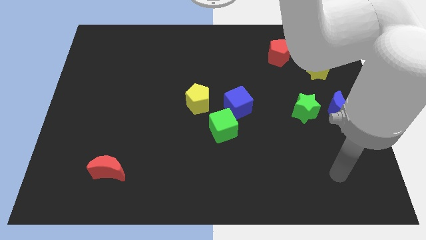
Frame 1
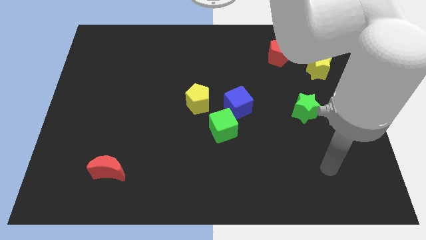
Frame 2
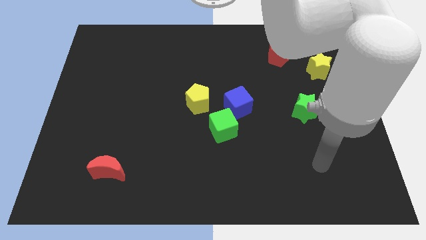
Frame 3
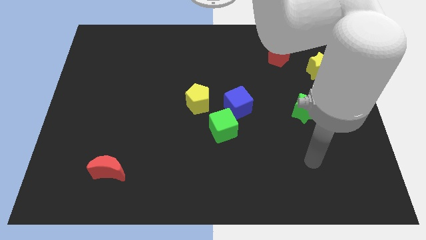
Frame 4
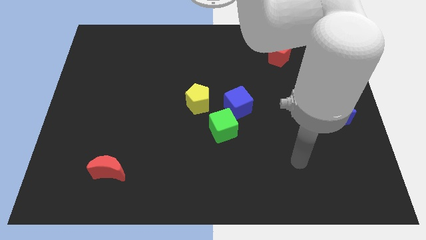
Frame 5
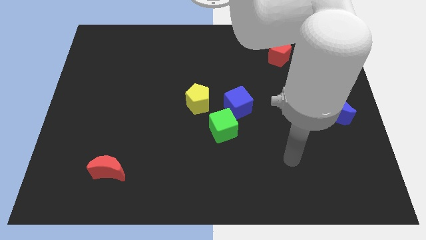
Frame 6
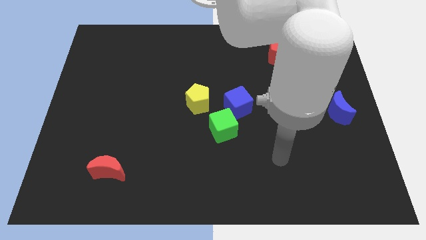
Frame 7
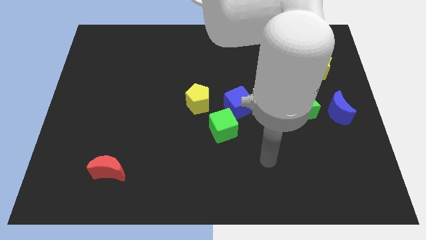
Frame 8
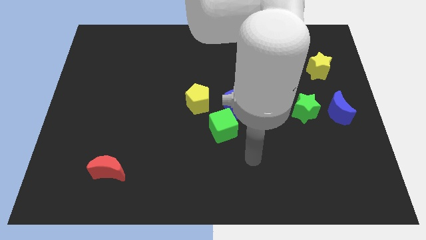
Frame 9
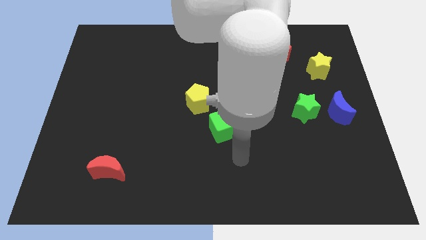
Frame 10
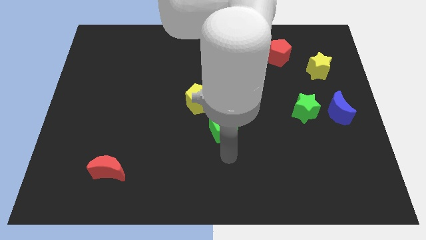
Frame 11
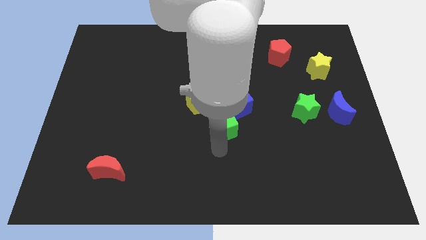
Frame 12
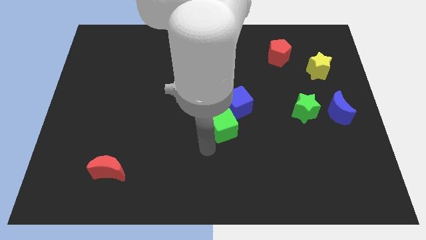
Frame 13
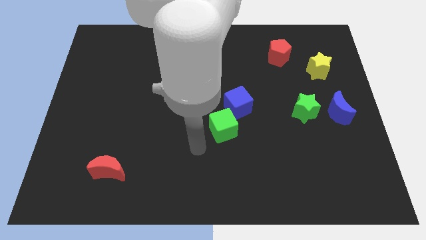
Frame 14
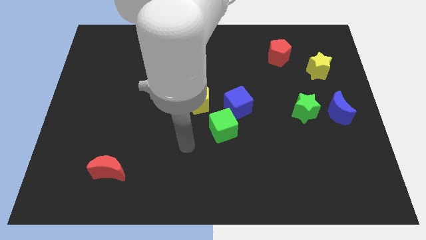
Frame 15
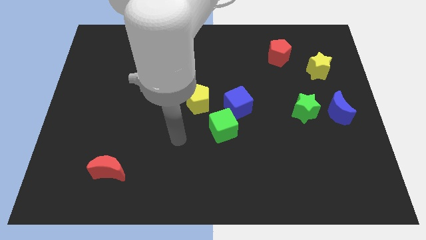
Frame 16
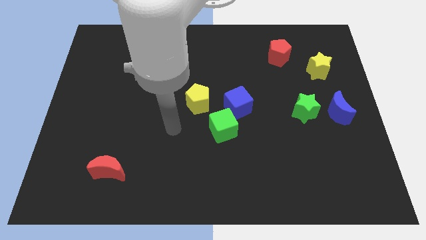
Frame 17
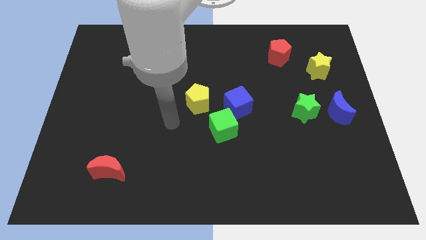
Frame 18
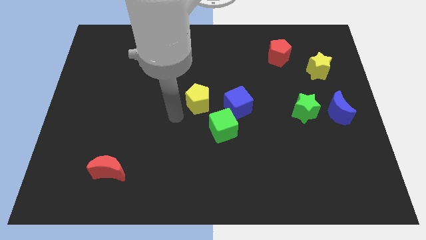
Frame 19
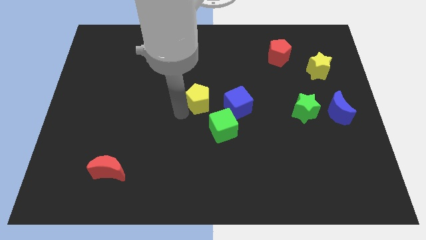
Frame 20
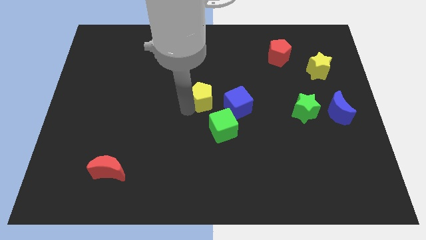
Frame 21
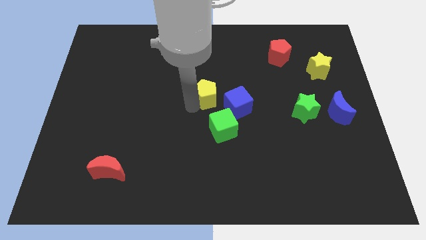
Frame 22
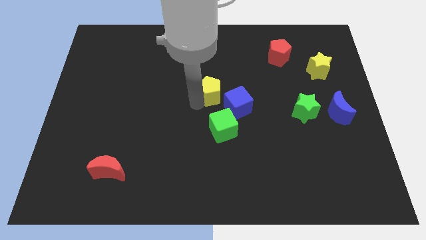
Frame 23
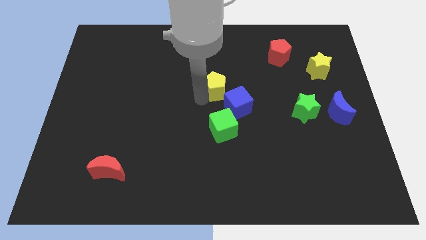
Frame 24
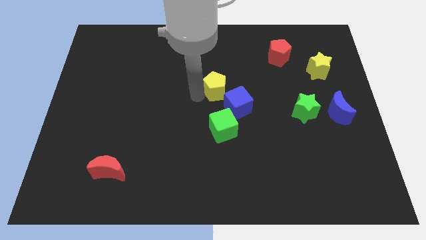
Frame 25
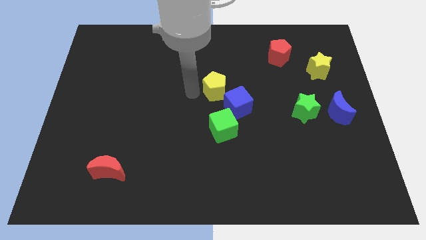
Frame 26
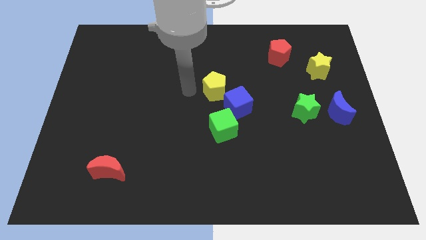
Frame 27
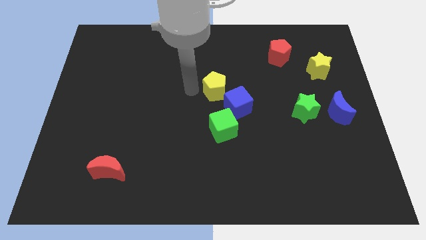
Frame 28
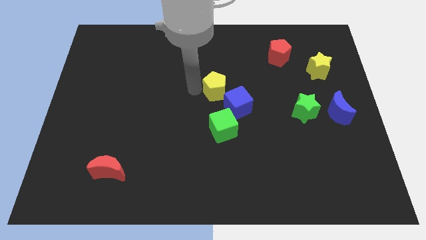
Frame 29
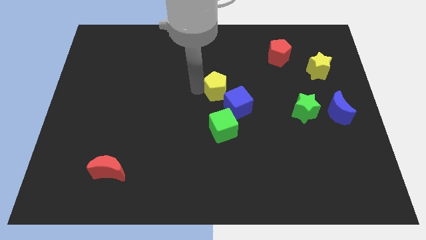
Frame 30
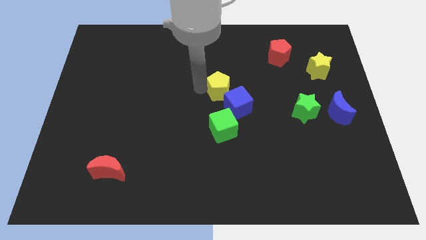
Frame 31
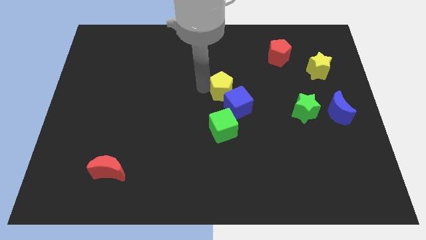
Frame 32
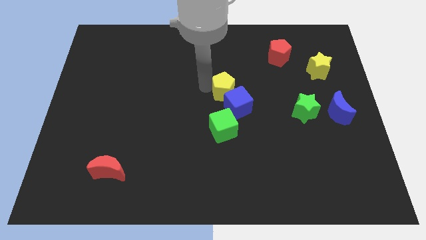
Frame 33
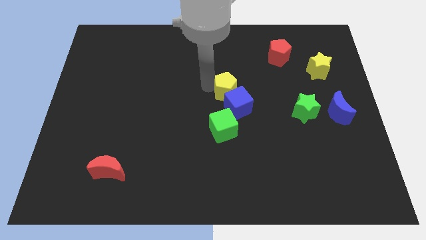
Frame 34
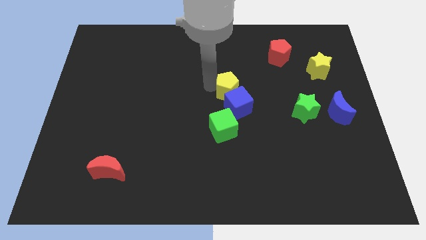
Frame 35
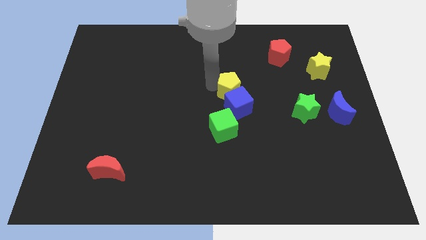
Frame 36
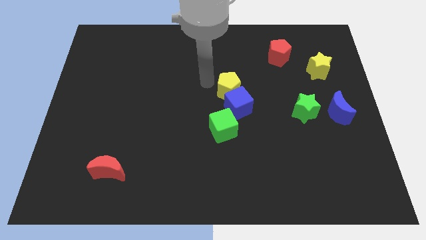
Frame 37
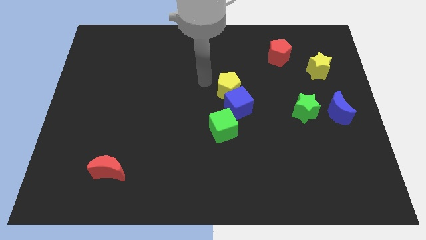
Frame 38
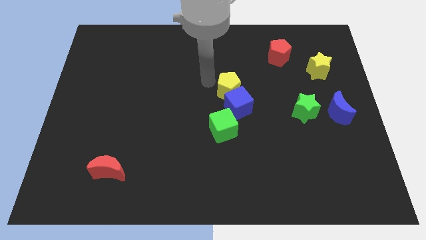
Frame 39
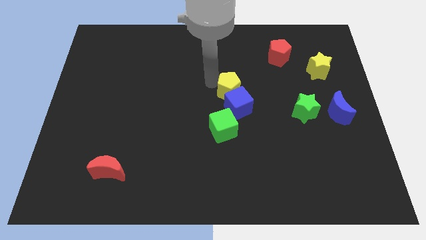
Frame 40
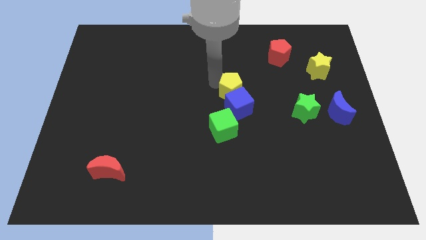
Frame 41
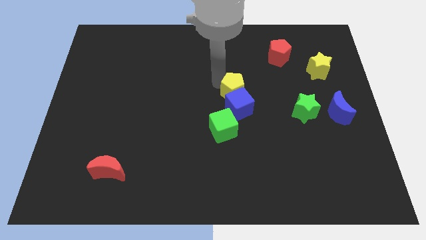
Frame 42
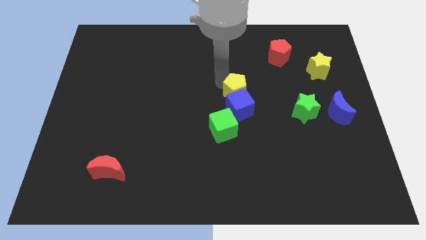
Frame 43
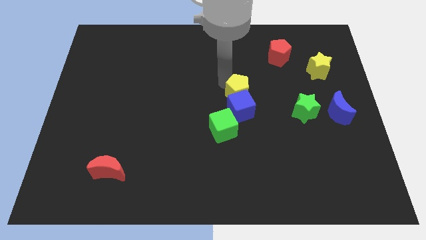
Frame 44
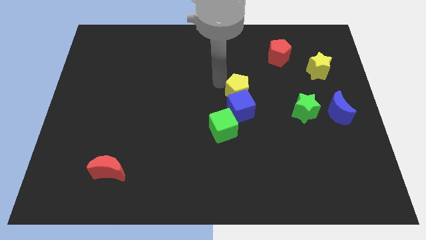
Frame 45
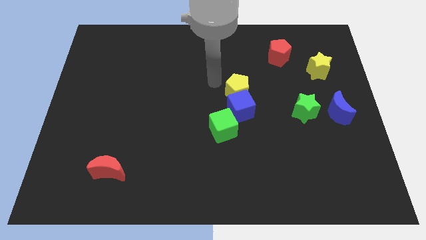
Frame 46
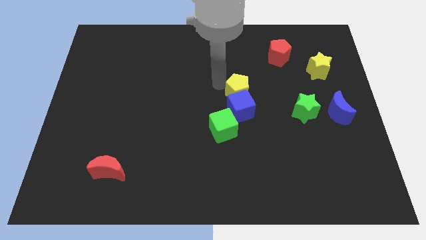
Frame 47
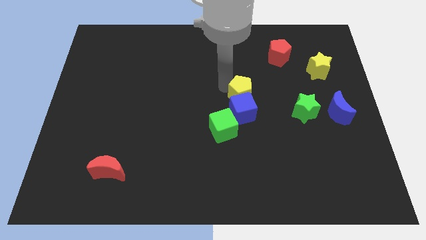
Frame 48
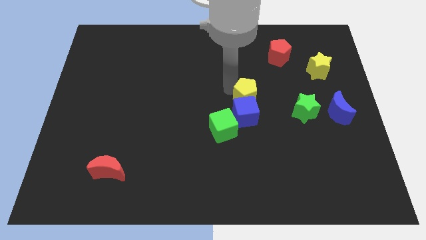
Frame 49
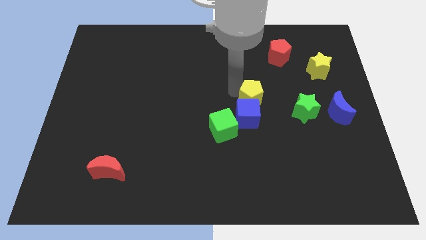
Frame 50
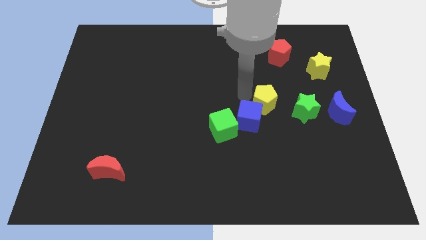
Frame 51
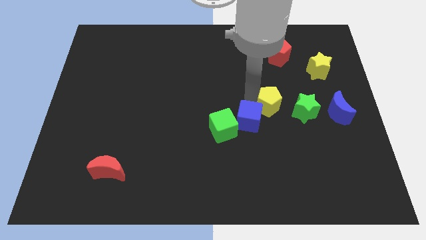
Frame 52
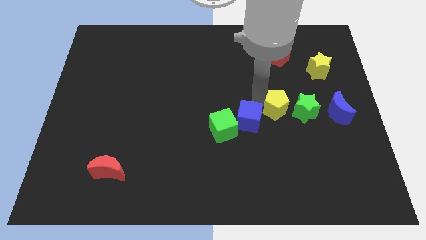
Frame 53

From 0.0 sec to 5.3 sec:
slide the yellow pentagon just left of the blue moon

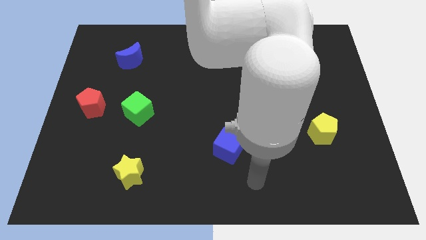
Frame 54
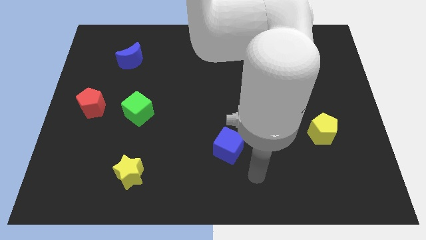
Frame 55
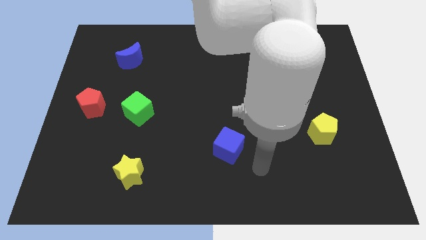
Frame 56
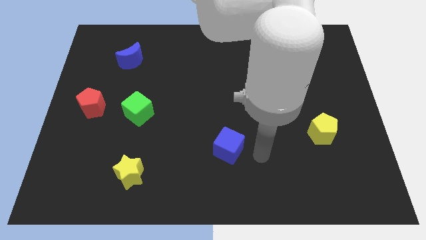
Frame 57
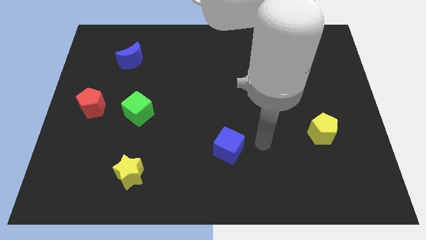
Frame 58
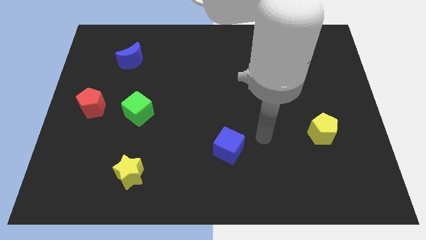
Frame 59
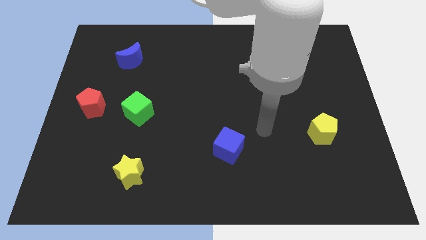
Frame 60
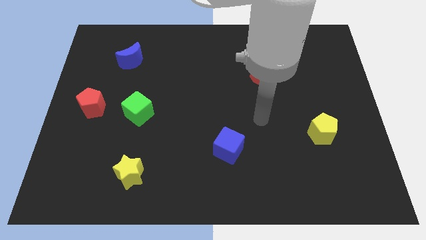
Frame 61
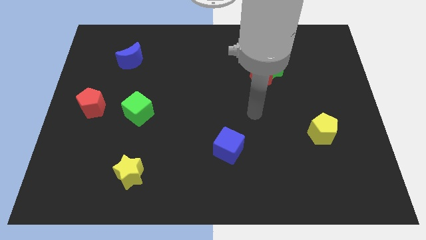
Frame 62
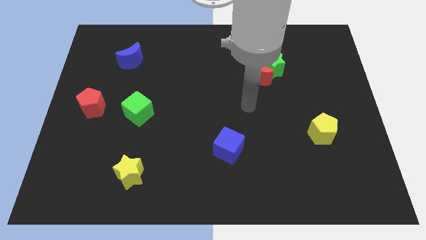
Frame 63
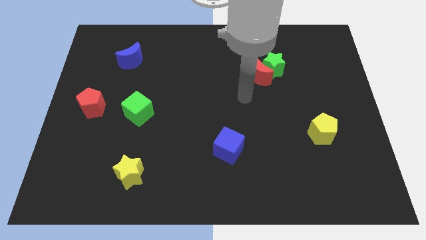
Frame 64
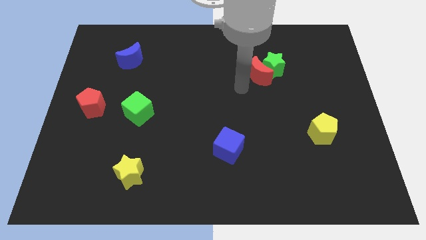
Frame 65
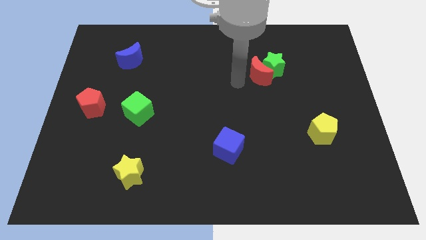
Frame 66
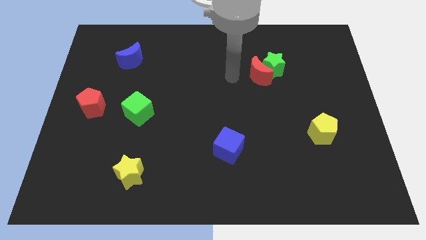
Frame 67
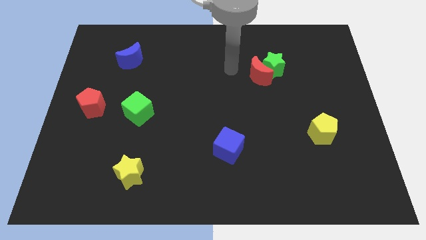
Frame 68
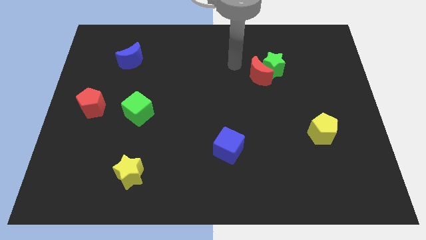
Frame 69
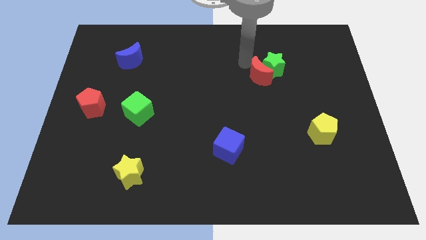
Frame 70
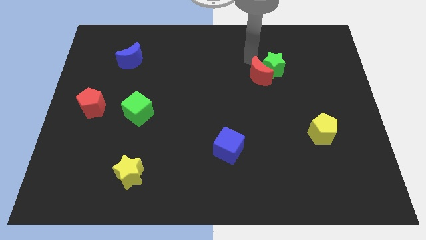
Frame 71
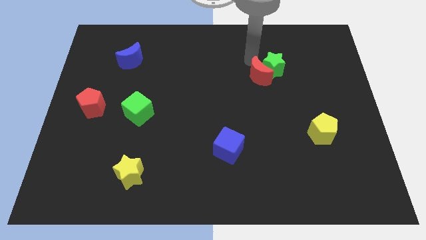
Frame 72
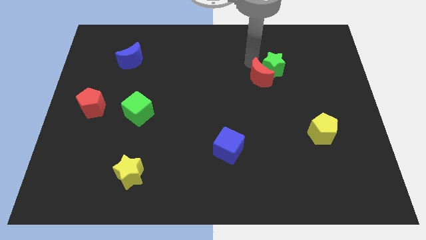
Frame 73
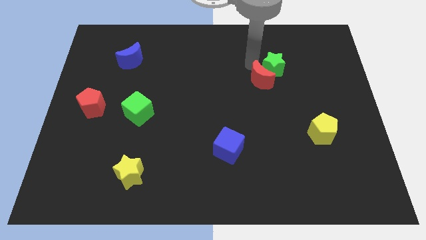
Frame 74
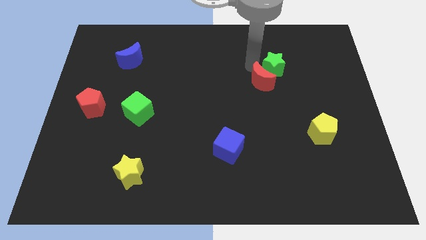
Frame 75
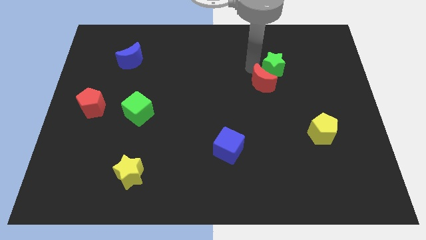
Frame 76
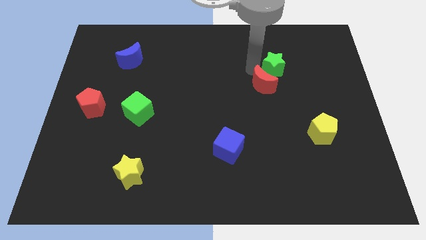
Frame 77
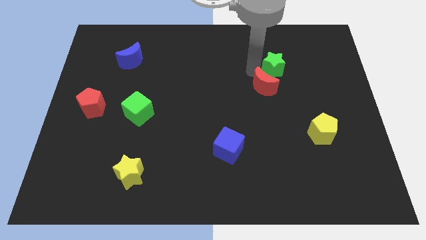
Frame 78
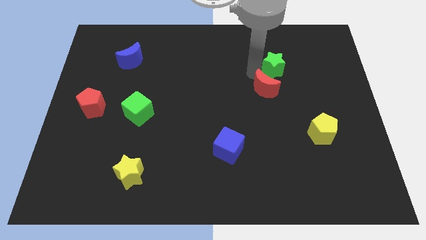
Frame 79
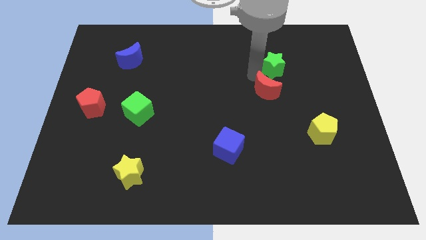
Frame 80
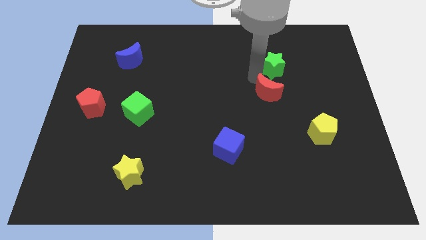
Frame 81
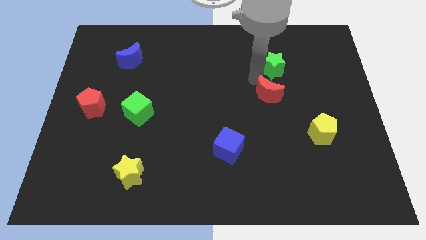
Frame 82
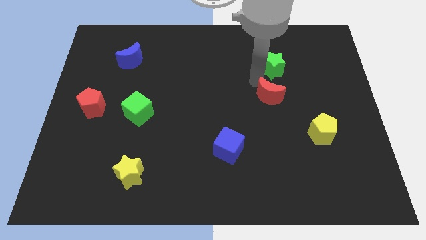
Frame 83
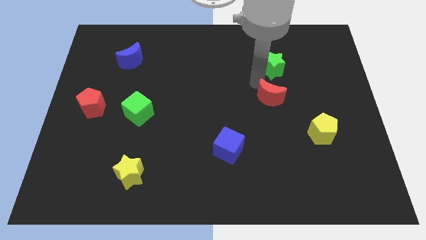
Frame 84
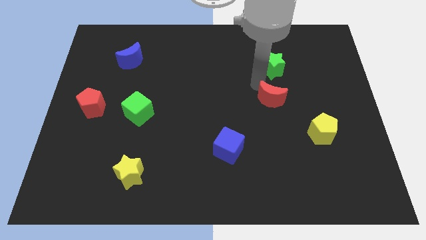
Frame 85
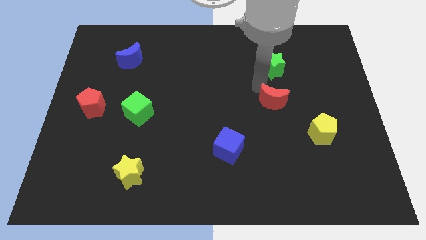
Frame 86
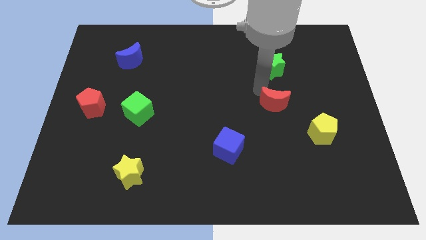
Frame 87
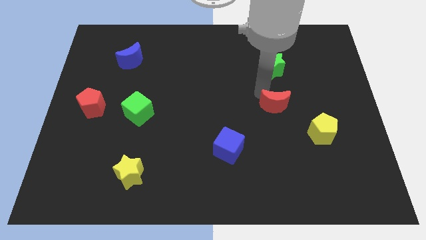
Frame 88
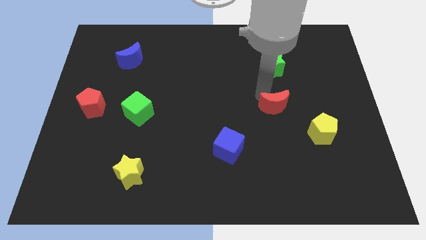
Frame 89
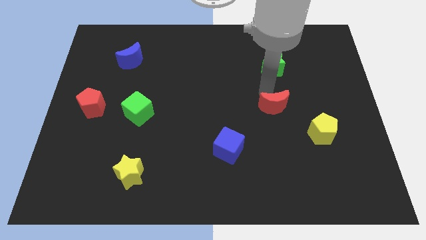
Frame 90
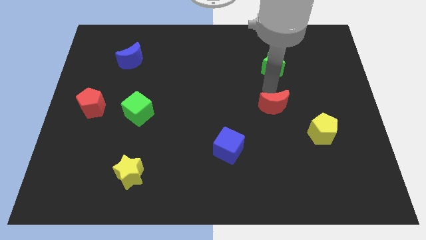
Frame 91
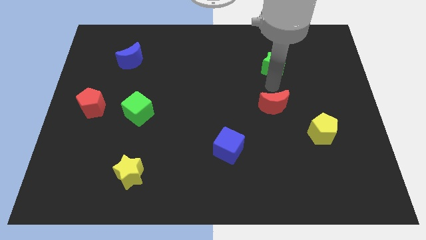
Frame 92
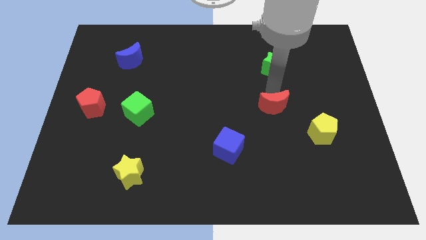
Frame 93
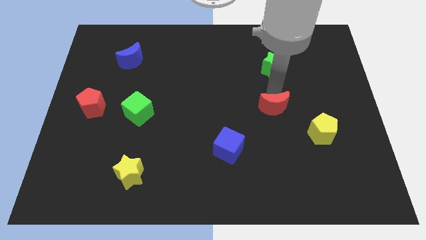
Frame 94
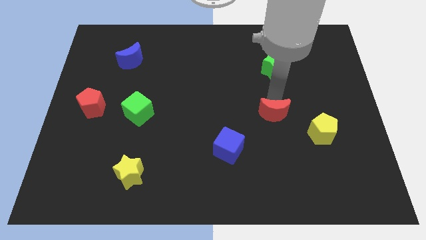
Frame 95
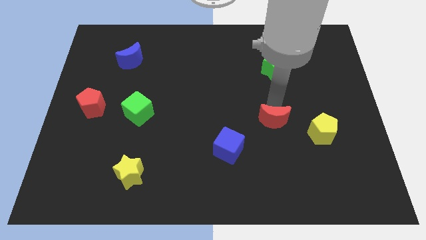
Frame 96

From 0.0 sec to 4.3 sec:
slide the red moon to the left of the yellow pentagon
